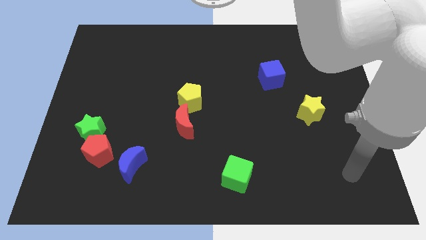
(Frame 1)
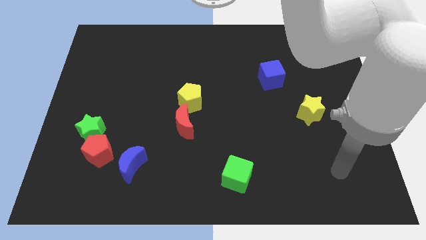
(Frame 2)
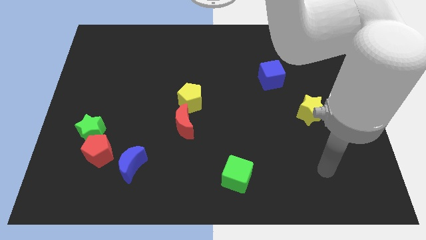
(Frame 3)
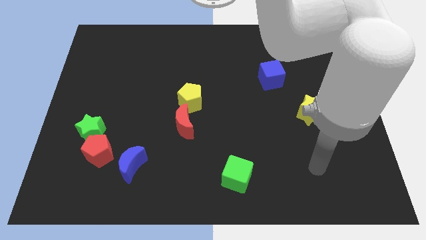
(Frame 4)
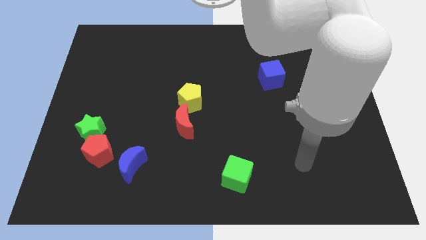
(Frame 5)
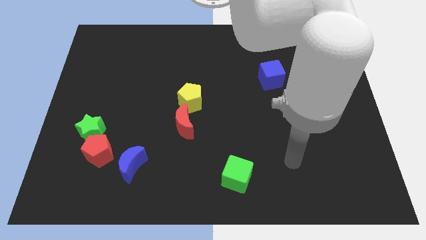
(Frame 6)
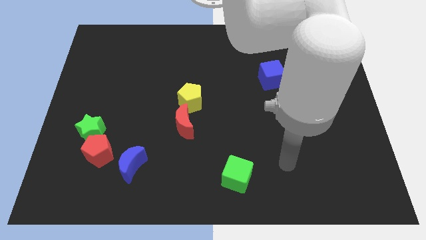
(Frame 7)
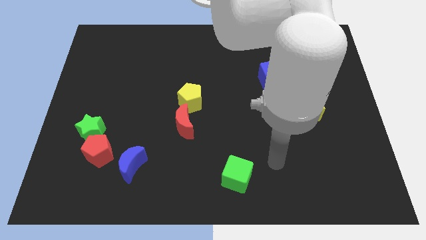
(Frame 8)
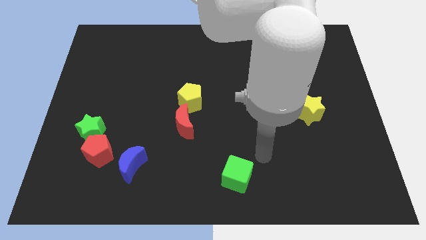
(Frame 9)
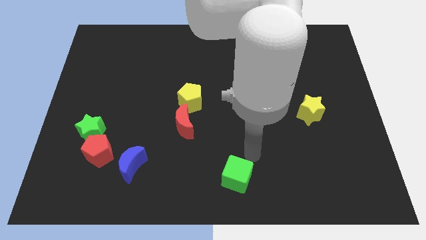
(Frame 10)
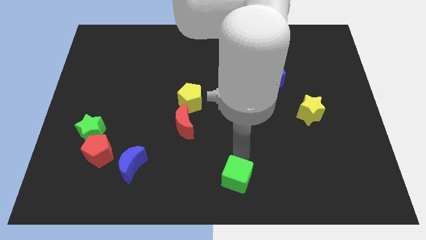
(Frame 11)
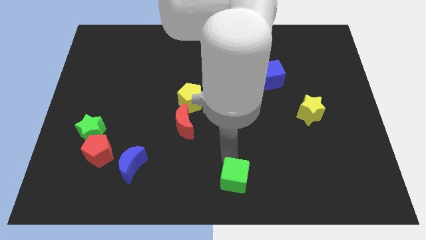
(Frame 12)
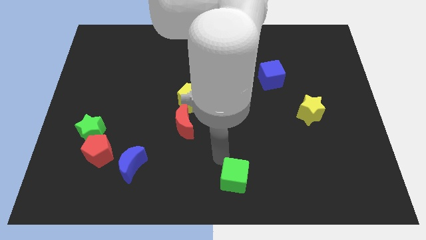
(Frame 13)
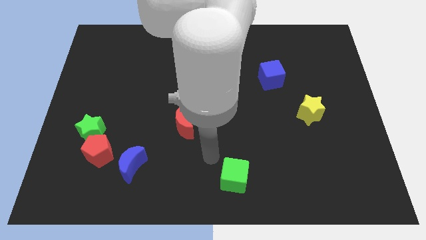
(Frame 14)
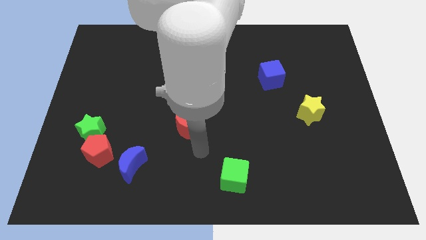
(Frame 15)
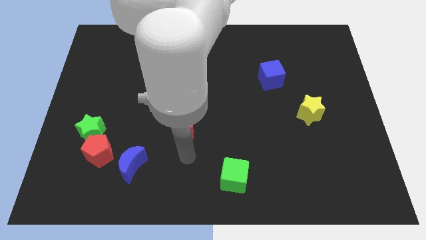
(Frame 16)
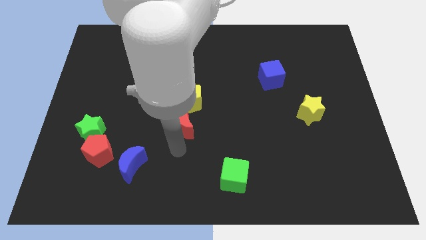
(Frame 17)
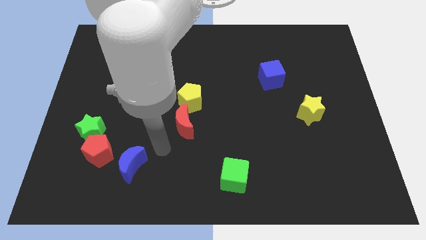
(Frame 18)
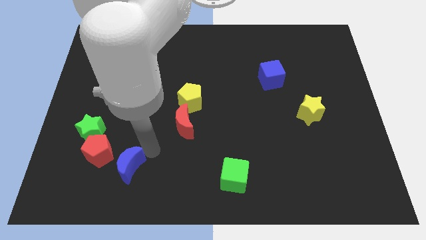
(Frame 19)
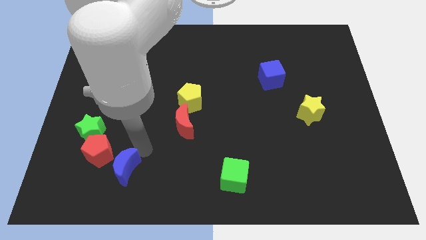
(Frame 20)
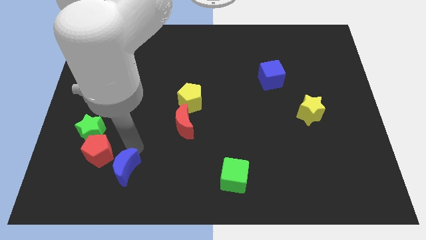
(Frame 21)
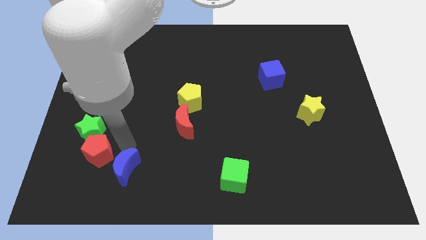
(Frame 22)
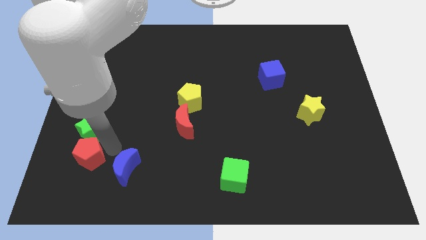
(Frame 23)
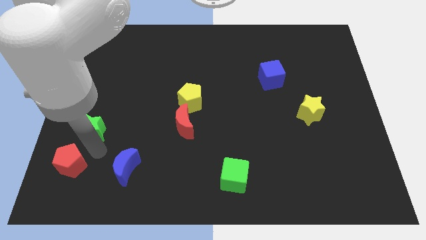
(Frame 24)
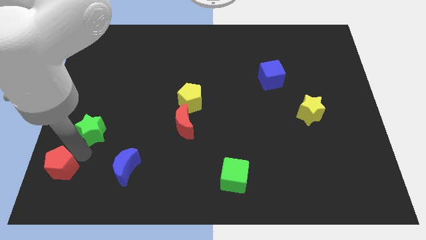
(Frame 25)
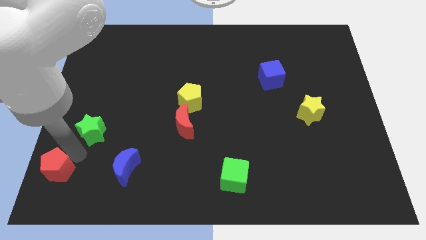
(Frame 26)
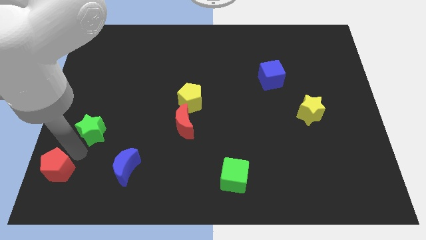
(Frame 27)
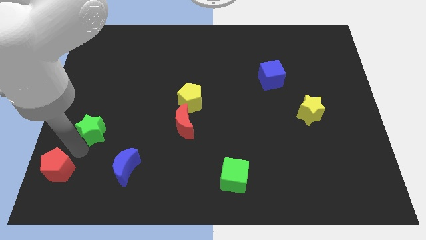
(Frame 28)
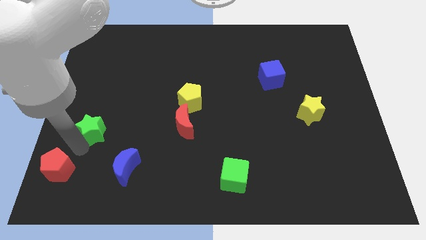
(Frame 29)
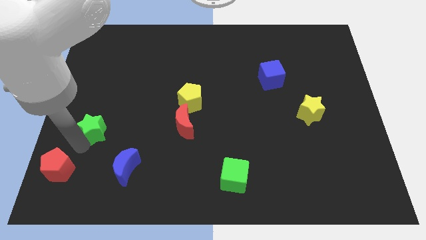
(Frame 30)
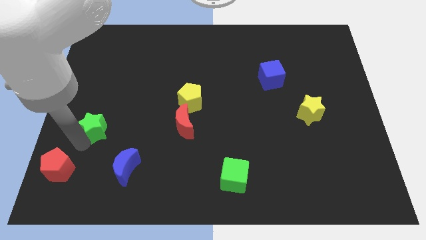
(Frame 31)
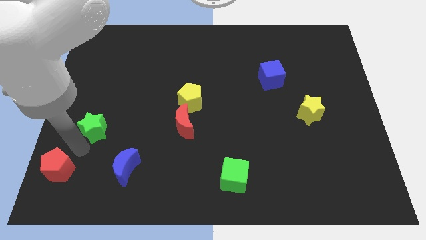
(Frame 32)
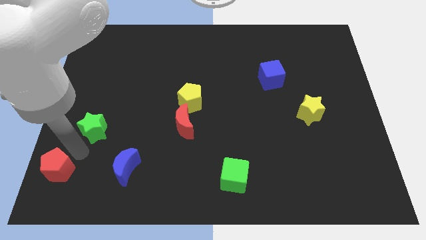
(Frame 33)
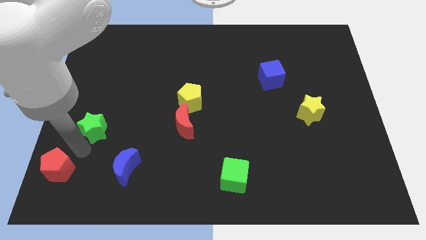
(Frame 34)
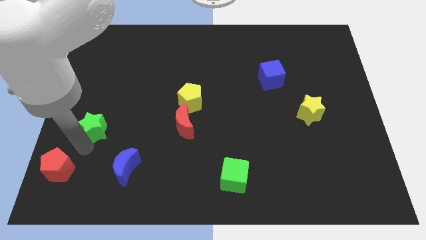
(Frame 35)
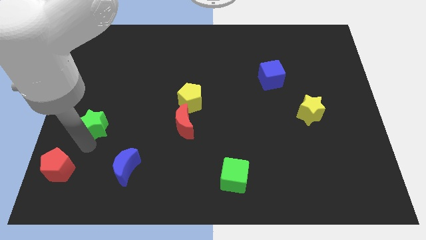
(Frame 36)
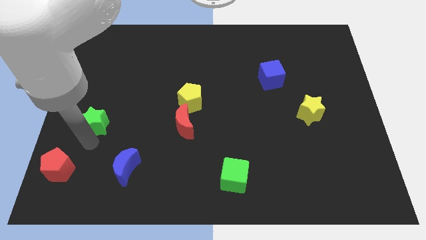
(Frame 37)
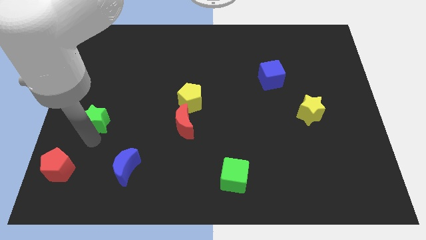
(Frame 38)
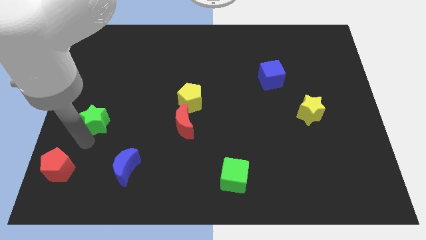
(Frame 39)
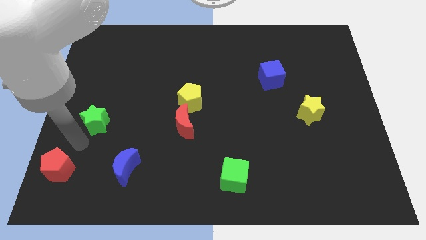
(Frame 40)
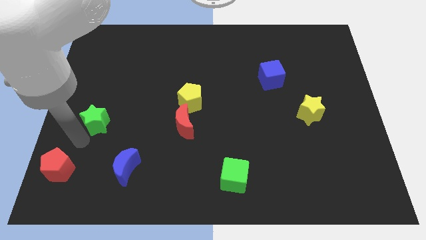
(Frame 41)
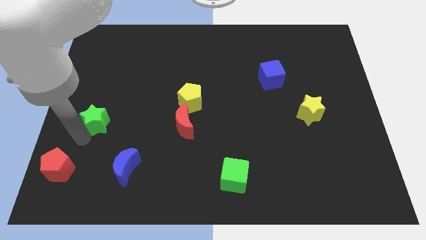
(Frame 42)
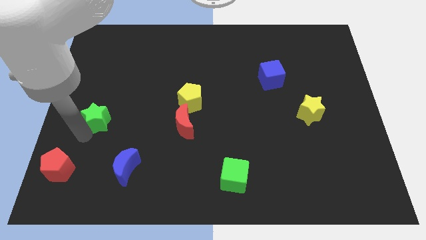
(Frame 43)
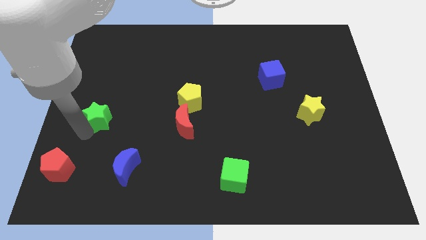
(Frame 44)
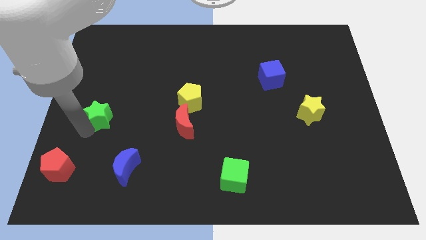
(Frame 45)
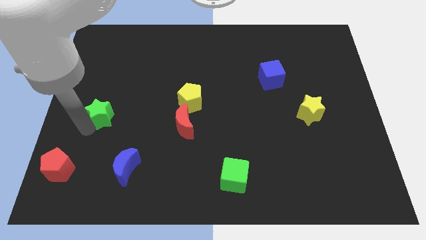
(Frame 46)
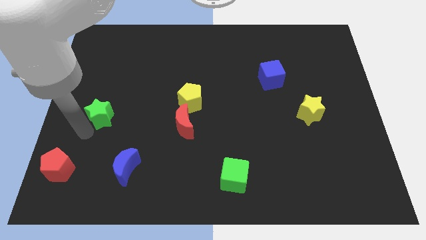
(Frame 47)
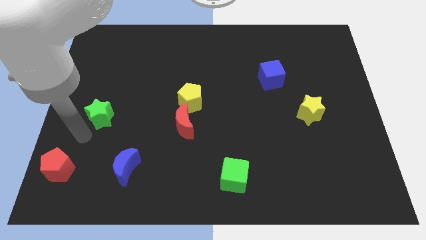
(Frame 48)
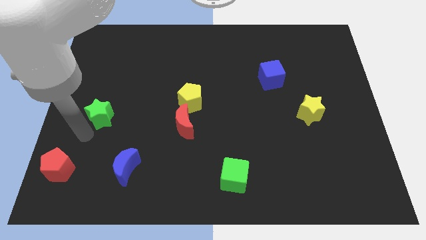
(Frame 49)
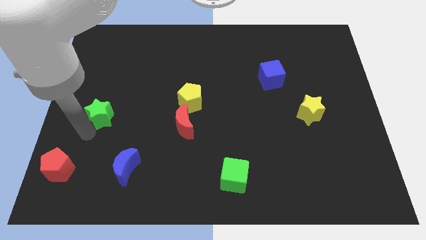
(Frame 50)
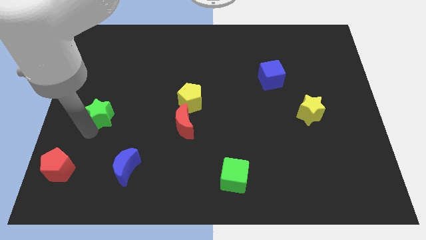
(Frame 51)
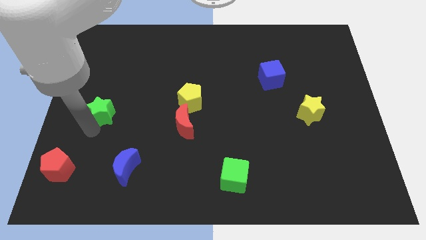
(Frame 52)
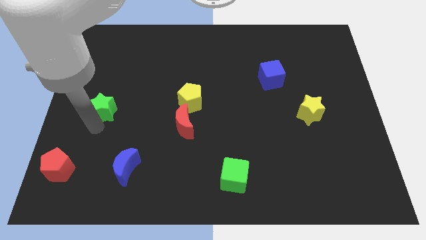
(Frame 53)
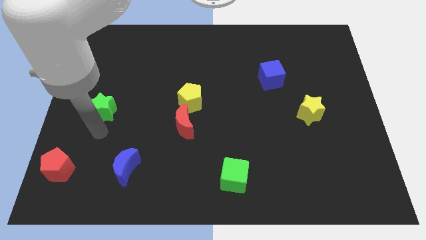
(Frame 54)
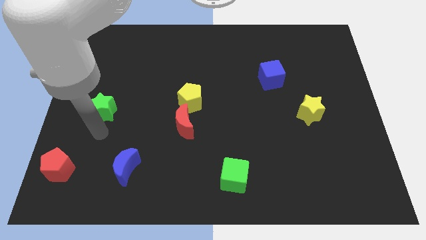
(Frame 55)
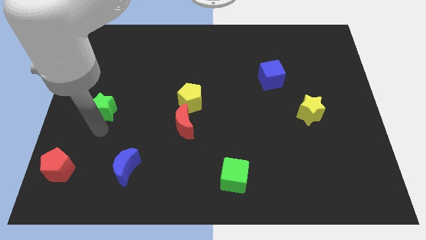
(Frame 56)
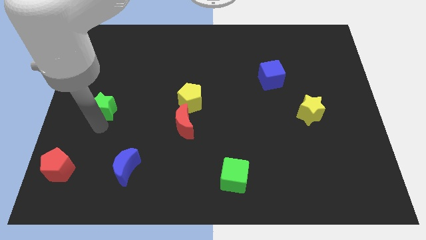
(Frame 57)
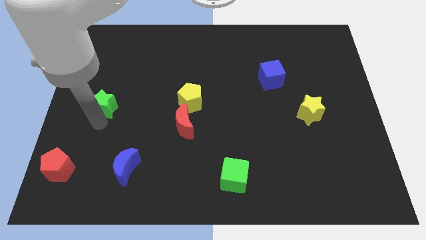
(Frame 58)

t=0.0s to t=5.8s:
slightly push the green star up

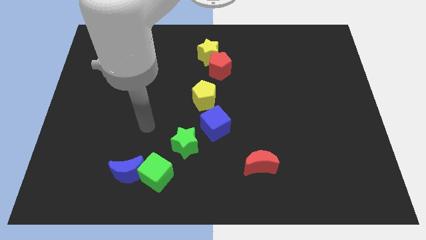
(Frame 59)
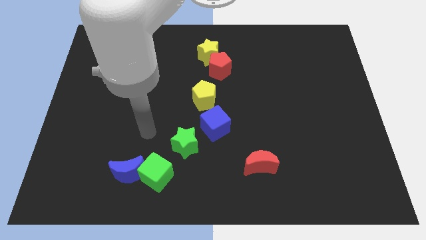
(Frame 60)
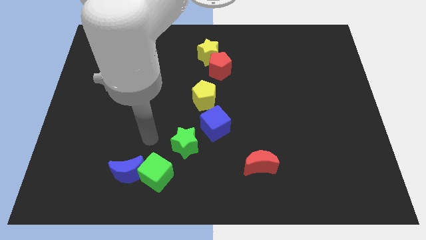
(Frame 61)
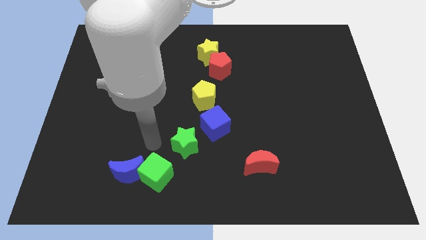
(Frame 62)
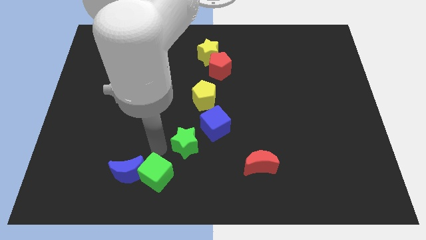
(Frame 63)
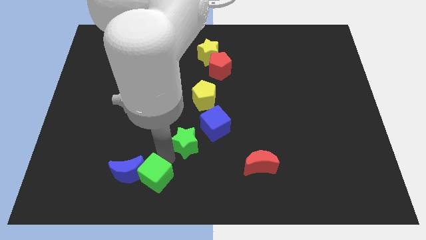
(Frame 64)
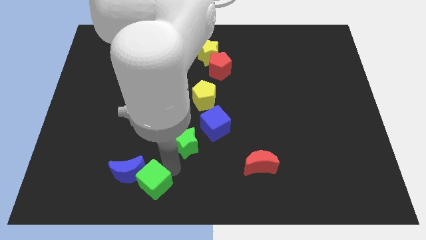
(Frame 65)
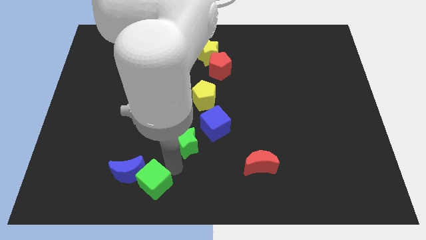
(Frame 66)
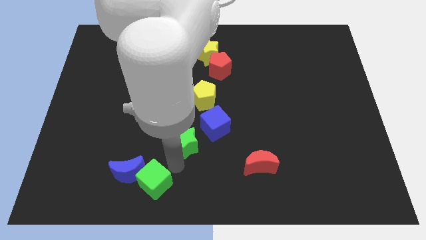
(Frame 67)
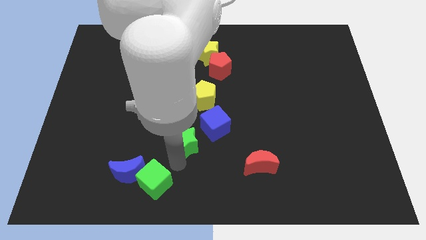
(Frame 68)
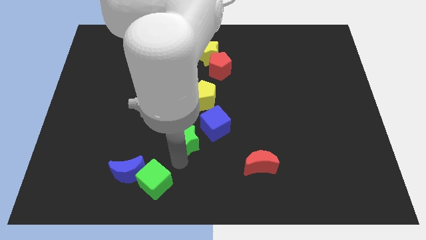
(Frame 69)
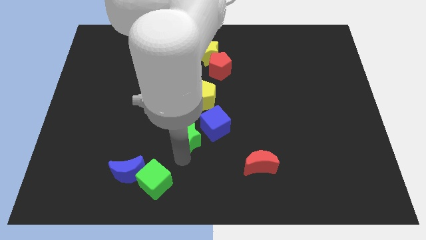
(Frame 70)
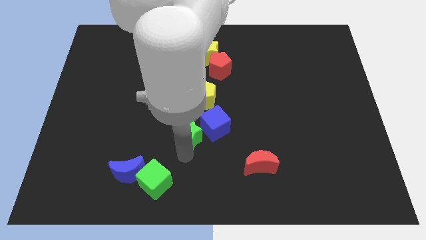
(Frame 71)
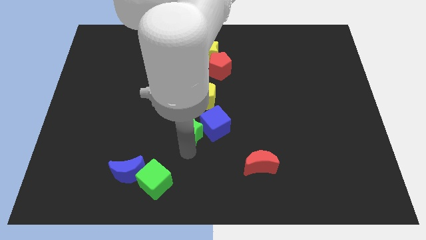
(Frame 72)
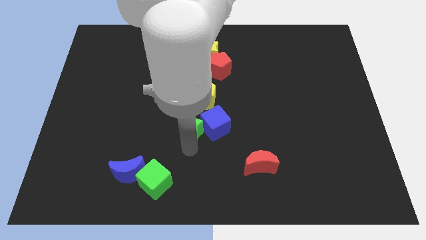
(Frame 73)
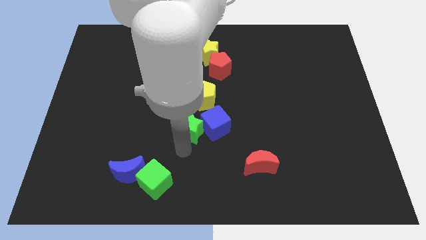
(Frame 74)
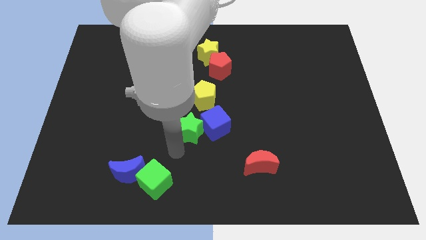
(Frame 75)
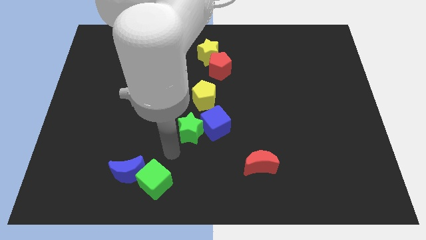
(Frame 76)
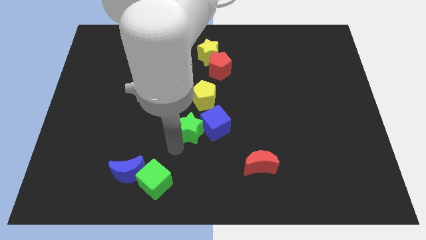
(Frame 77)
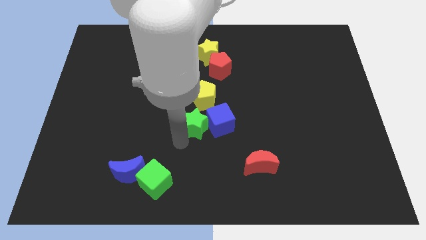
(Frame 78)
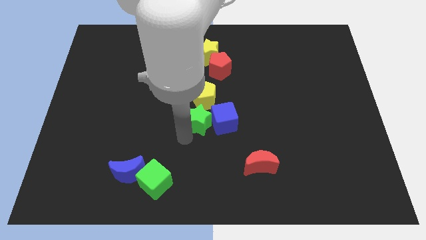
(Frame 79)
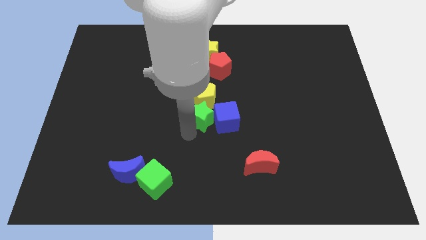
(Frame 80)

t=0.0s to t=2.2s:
move the green star upwards and right diagonally a bit

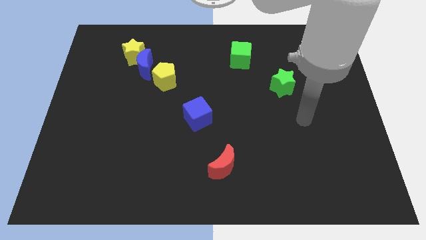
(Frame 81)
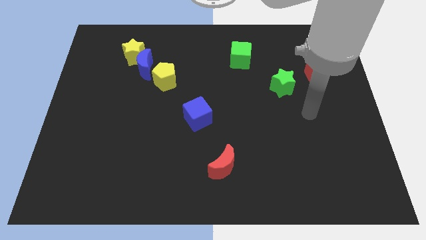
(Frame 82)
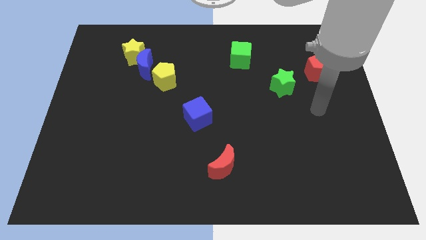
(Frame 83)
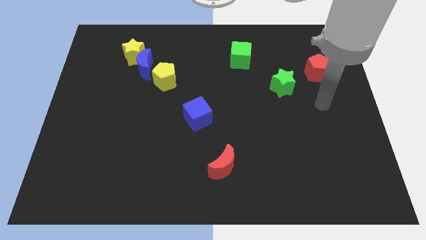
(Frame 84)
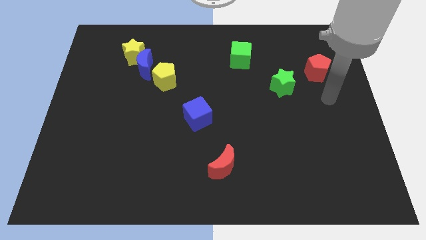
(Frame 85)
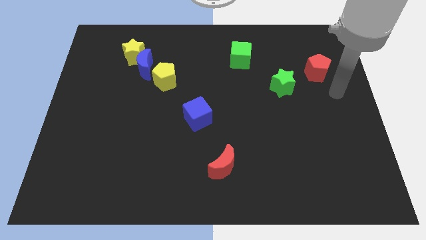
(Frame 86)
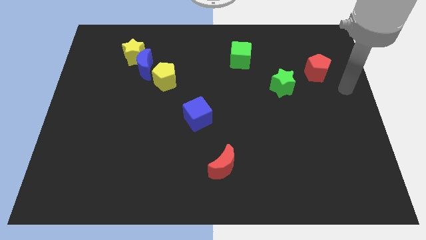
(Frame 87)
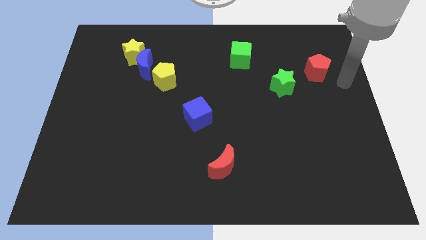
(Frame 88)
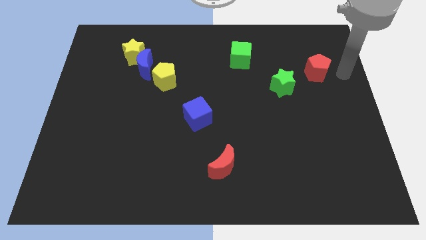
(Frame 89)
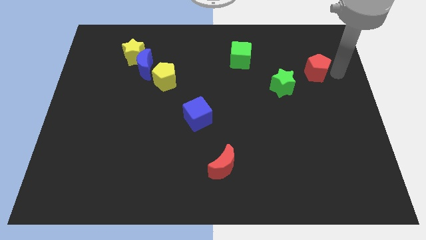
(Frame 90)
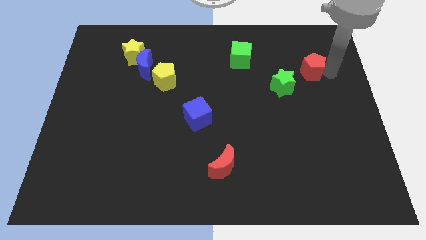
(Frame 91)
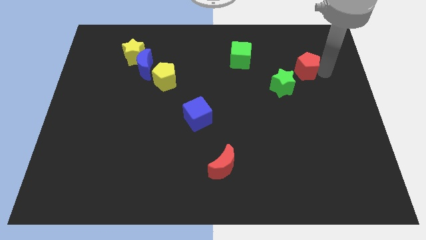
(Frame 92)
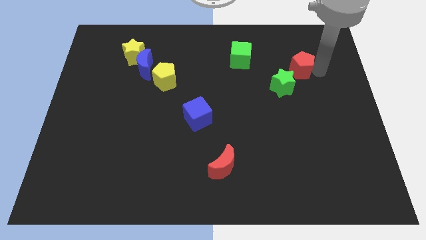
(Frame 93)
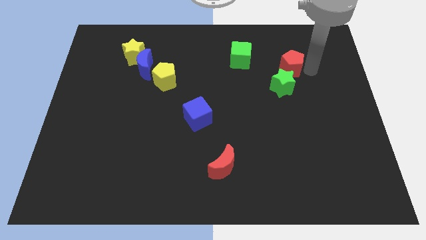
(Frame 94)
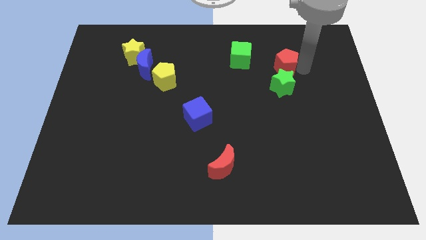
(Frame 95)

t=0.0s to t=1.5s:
move the red pentagon to the left slightly
